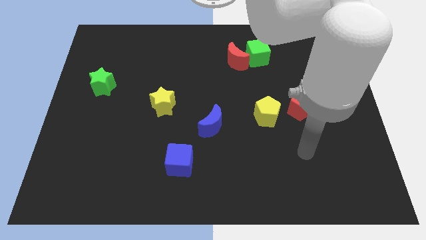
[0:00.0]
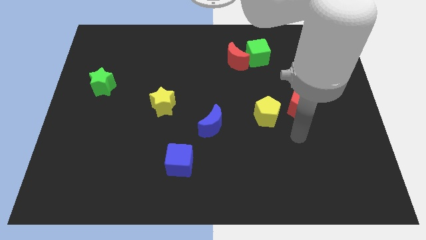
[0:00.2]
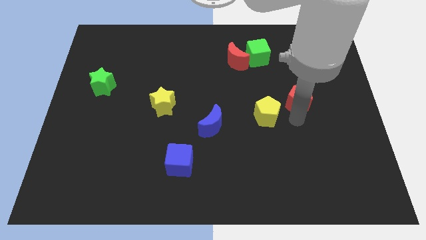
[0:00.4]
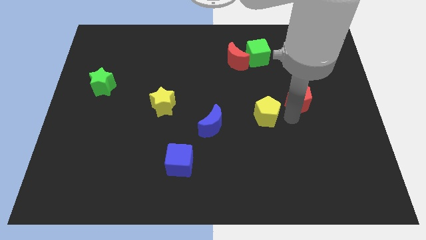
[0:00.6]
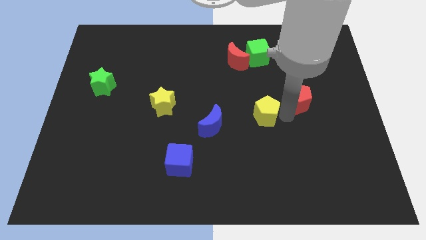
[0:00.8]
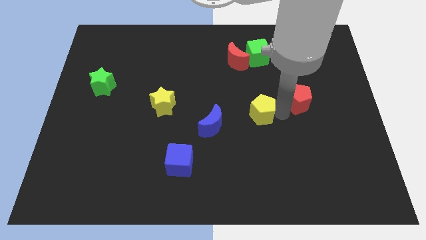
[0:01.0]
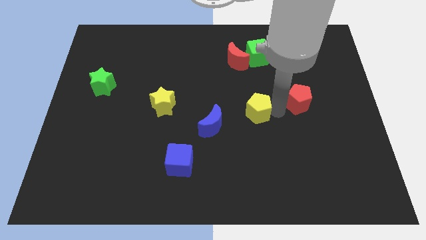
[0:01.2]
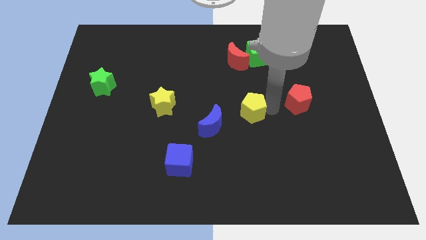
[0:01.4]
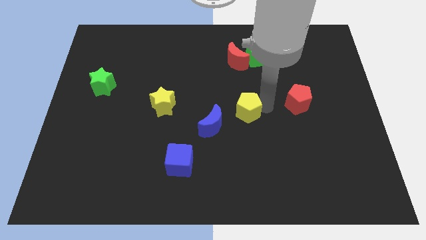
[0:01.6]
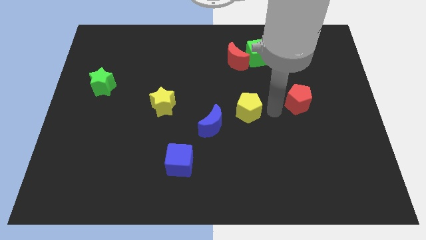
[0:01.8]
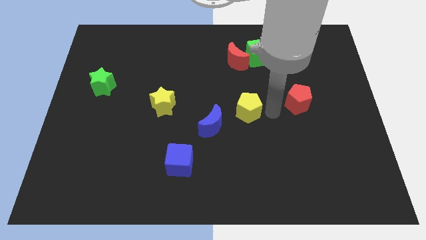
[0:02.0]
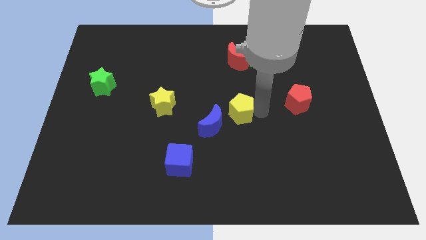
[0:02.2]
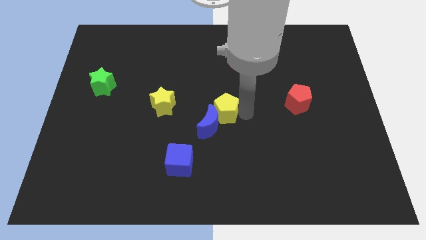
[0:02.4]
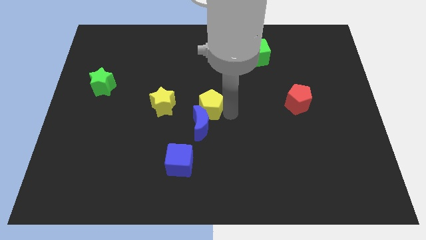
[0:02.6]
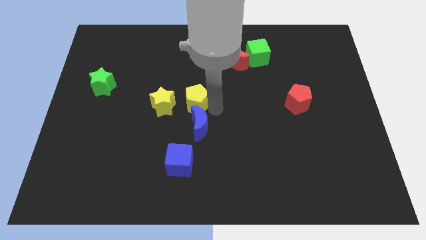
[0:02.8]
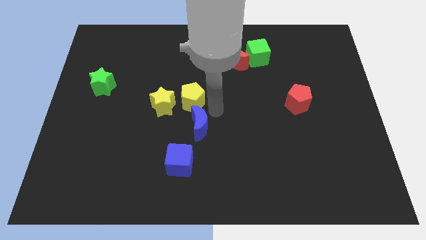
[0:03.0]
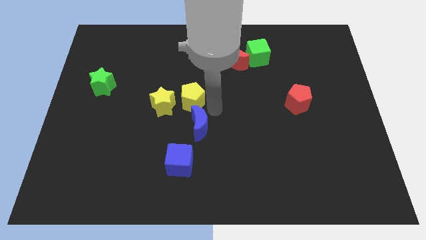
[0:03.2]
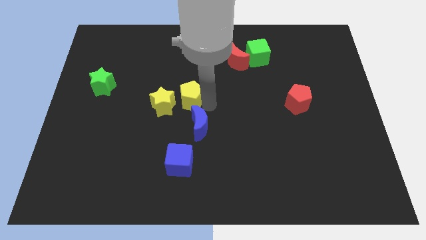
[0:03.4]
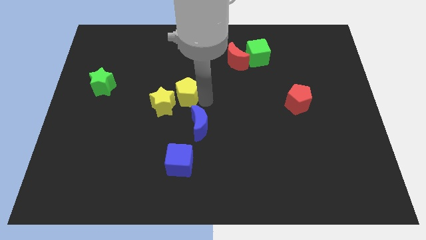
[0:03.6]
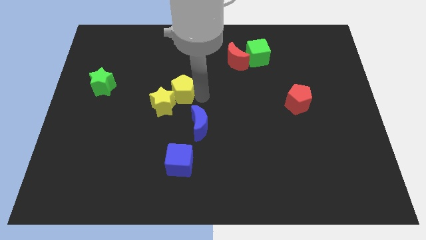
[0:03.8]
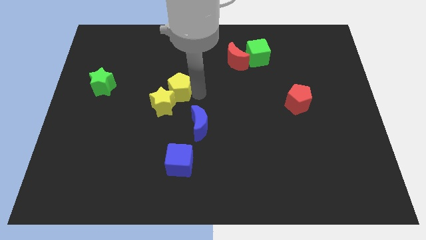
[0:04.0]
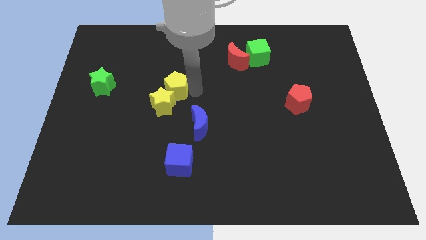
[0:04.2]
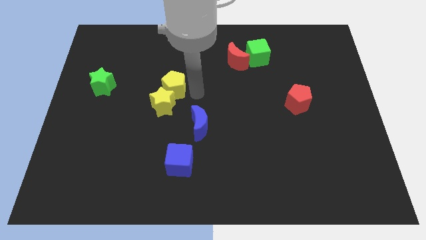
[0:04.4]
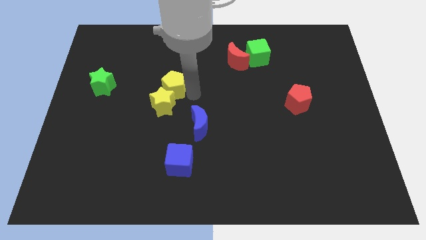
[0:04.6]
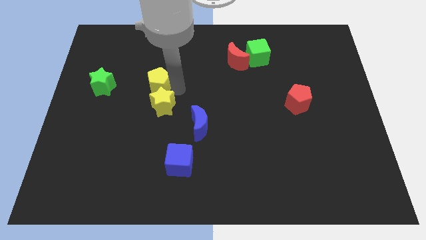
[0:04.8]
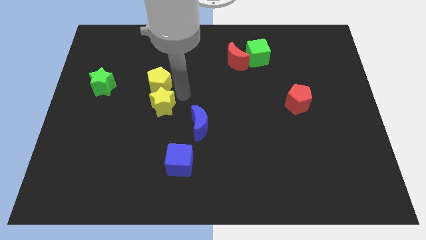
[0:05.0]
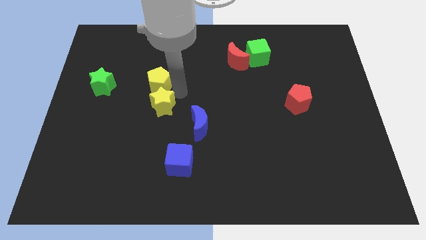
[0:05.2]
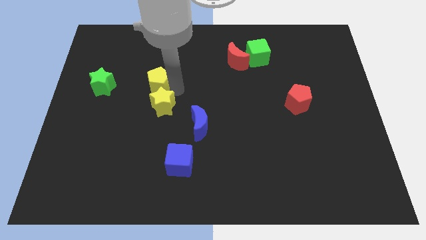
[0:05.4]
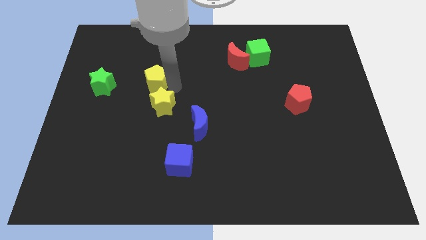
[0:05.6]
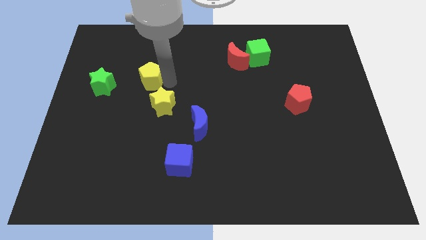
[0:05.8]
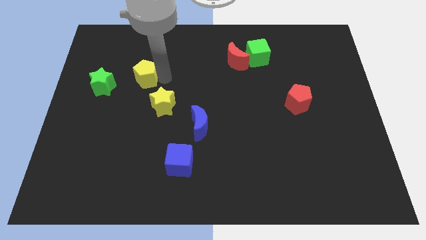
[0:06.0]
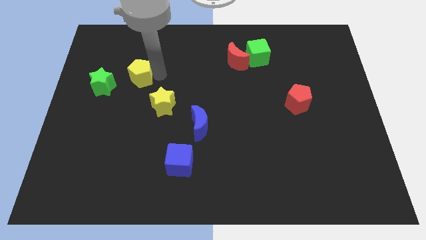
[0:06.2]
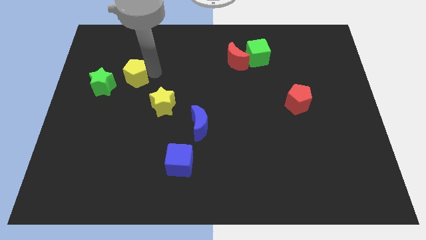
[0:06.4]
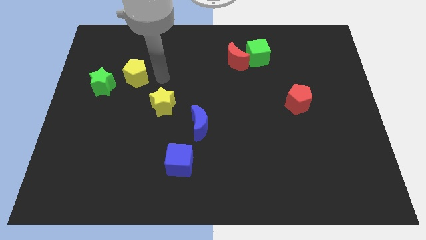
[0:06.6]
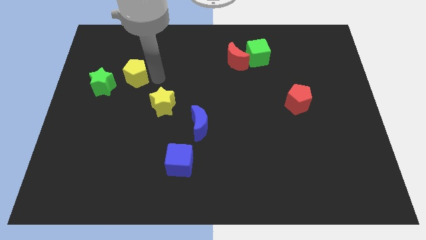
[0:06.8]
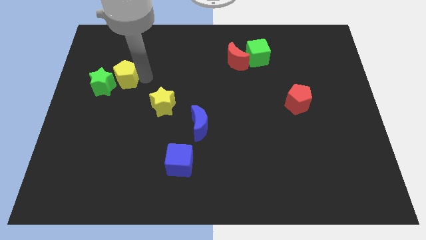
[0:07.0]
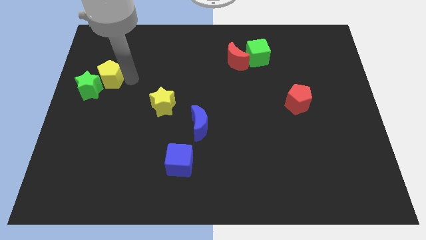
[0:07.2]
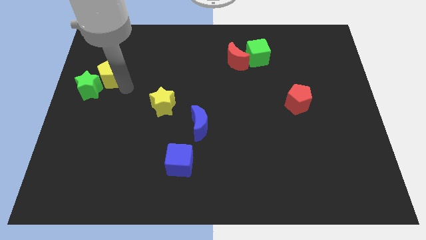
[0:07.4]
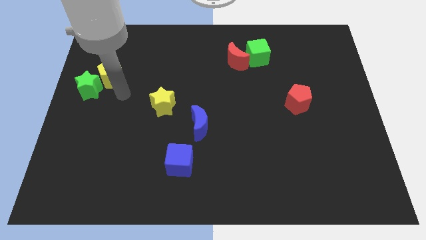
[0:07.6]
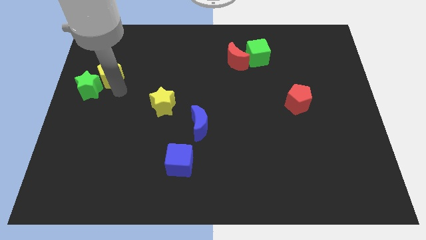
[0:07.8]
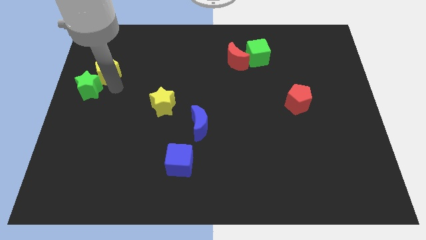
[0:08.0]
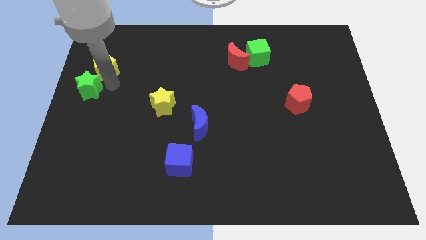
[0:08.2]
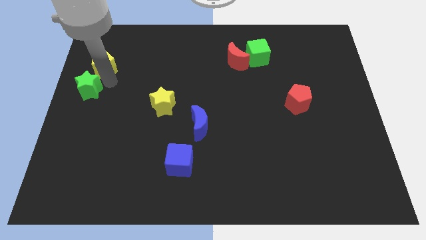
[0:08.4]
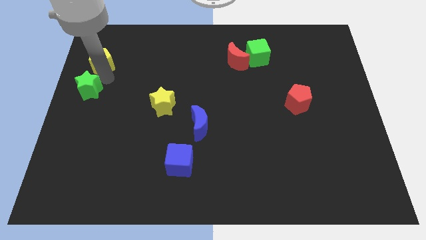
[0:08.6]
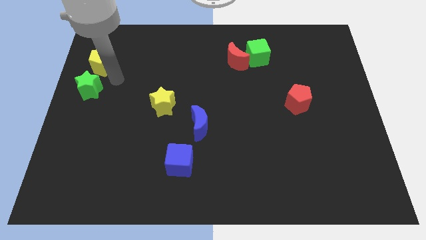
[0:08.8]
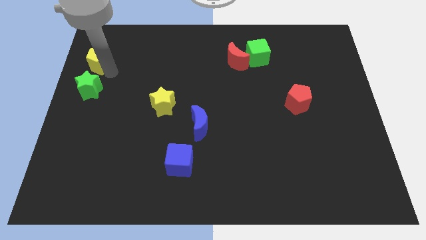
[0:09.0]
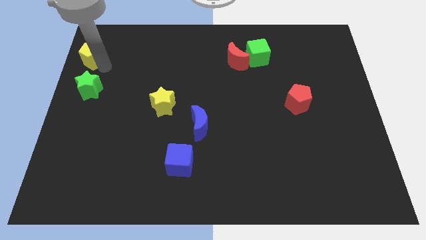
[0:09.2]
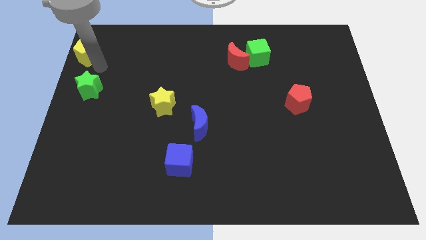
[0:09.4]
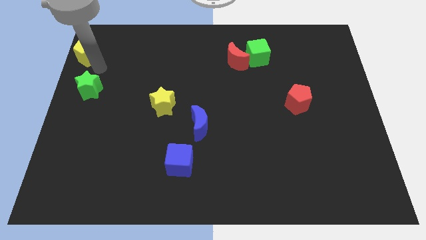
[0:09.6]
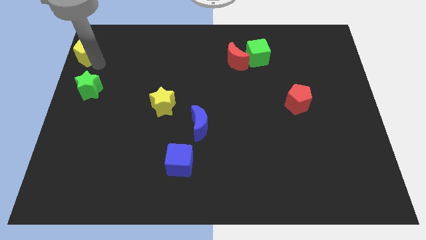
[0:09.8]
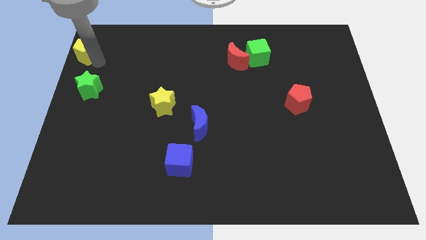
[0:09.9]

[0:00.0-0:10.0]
slide the yellow pentagon to the upper left corner

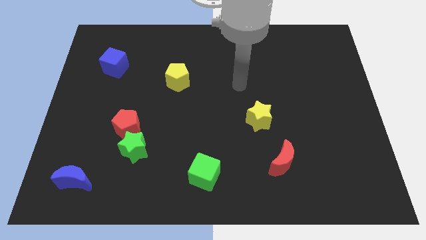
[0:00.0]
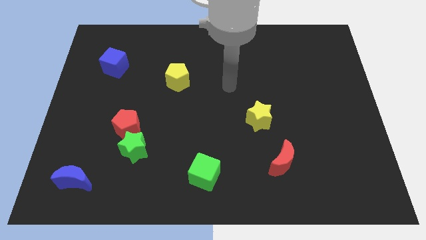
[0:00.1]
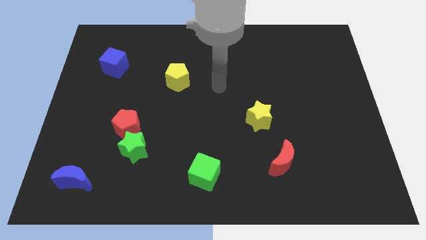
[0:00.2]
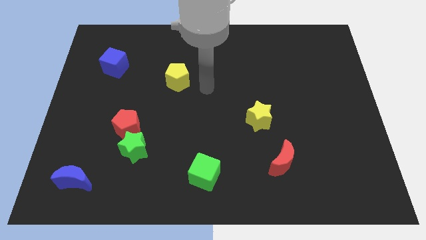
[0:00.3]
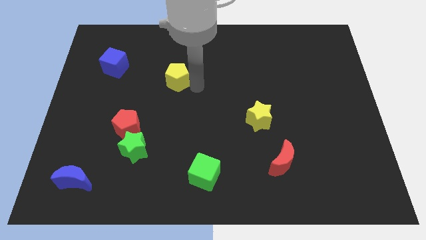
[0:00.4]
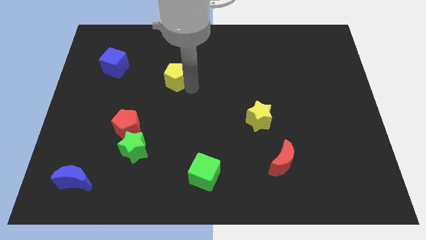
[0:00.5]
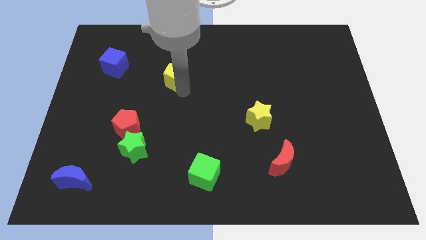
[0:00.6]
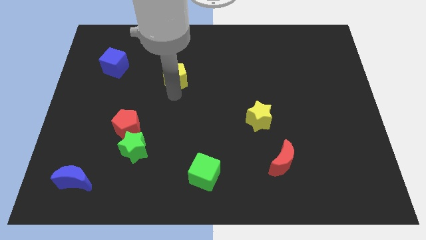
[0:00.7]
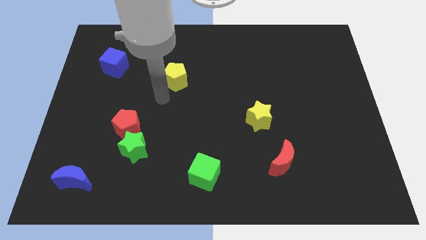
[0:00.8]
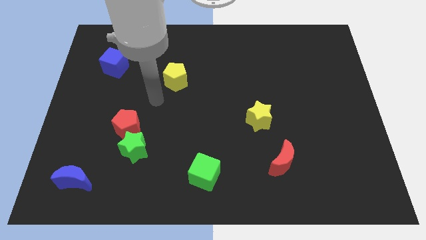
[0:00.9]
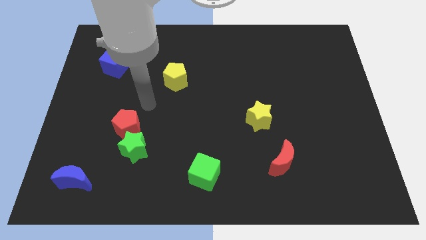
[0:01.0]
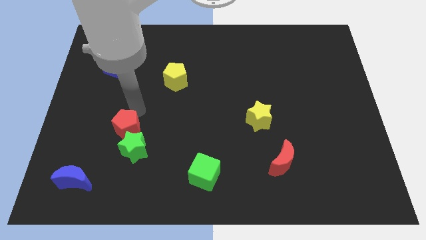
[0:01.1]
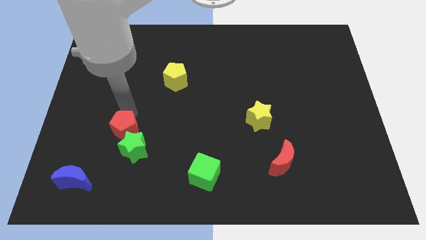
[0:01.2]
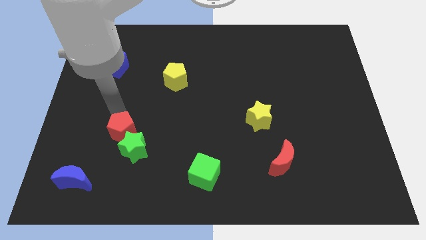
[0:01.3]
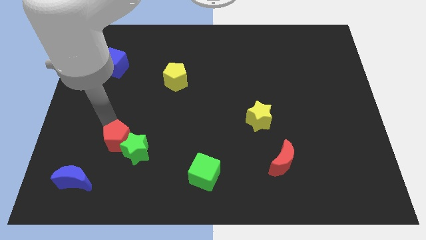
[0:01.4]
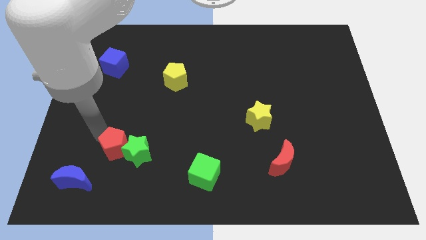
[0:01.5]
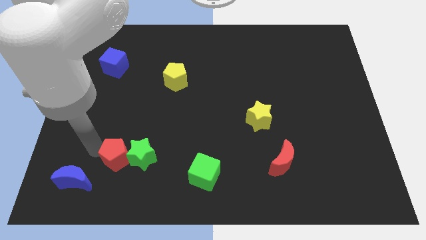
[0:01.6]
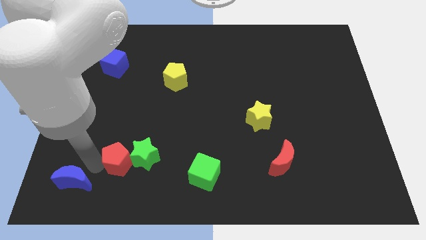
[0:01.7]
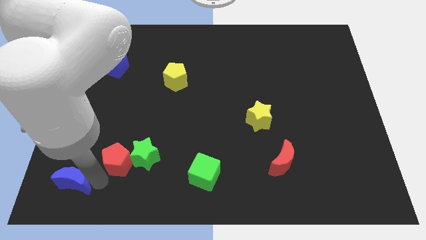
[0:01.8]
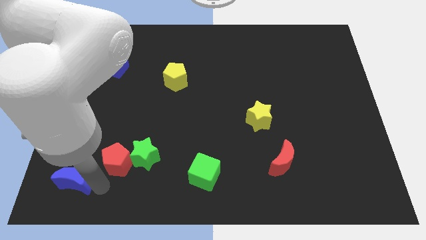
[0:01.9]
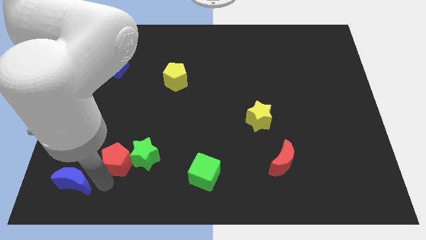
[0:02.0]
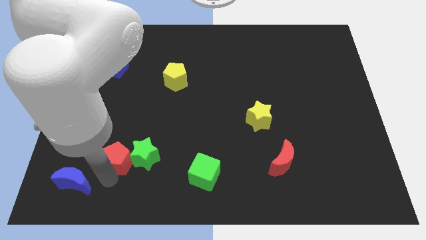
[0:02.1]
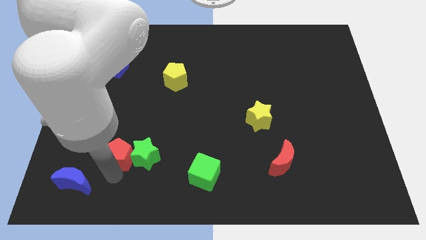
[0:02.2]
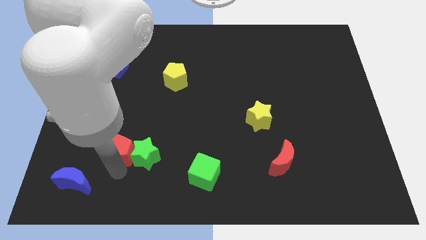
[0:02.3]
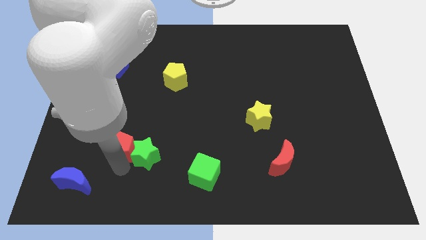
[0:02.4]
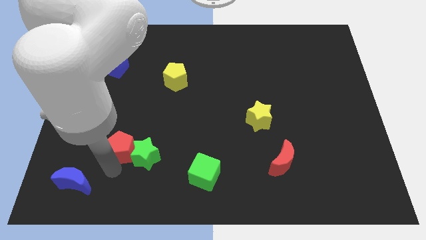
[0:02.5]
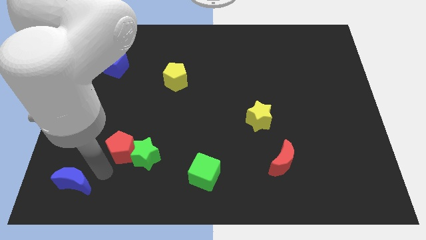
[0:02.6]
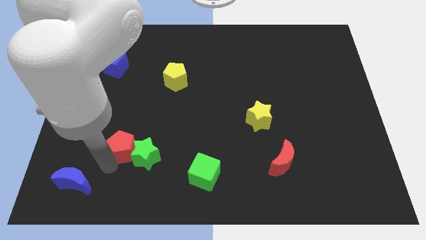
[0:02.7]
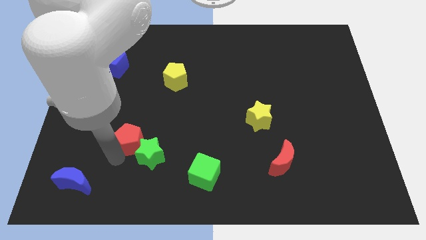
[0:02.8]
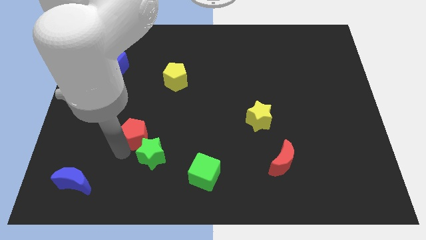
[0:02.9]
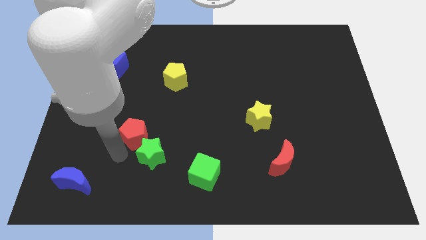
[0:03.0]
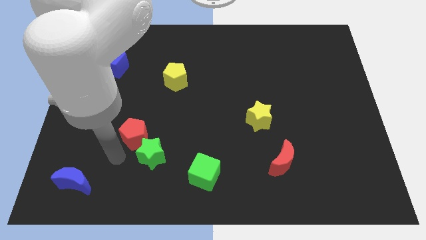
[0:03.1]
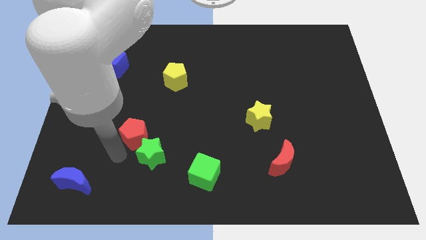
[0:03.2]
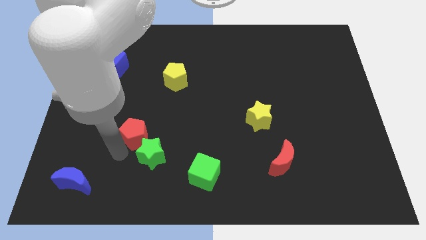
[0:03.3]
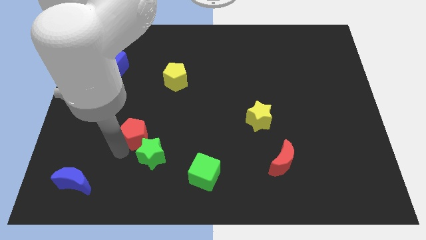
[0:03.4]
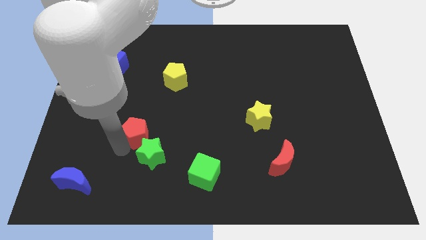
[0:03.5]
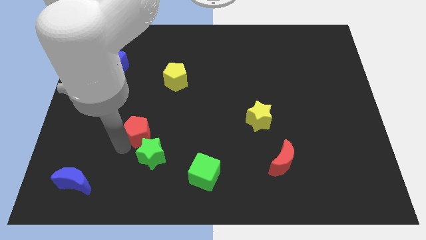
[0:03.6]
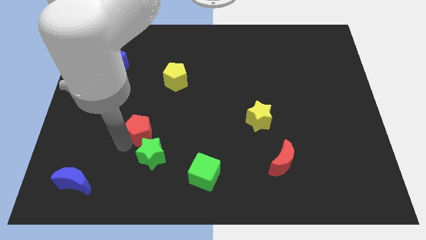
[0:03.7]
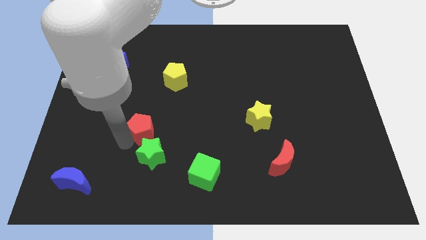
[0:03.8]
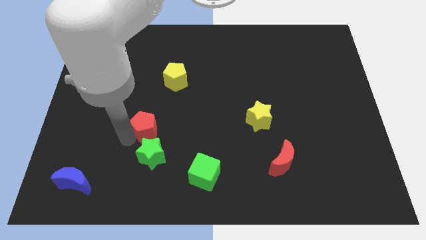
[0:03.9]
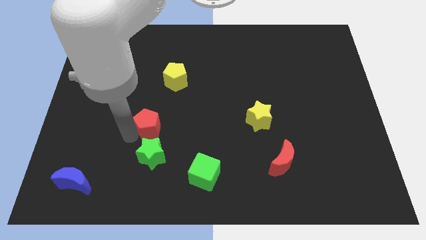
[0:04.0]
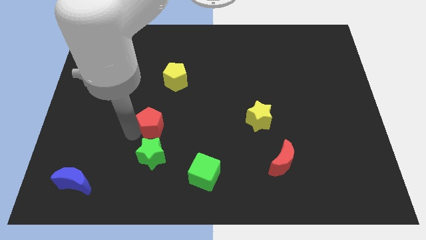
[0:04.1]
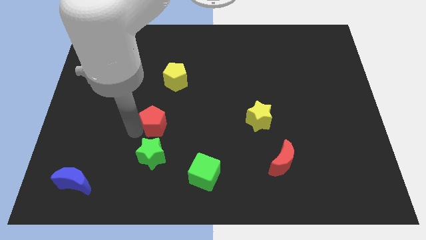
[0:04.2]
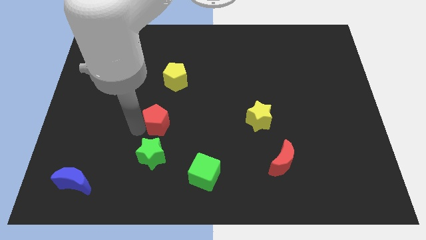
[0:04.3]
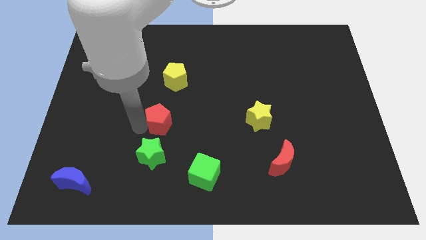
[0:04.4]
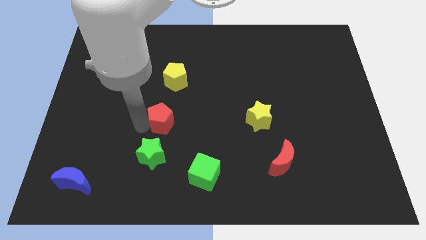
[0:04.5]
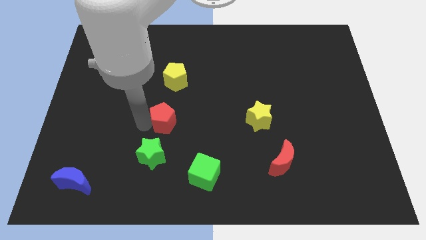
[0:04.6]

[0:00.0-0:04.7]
put the red pentagon to the center
